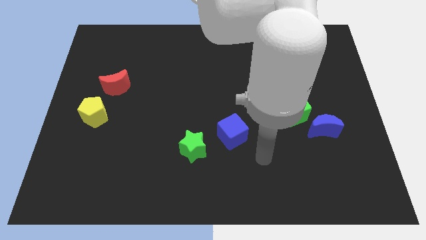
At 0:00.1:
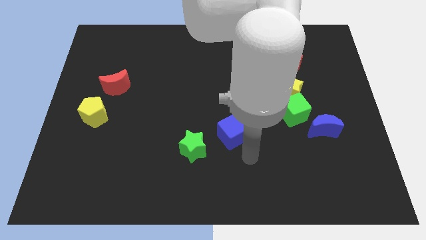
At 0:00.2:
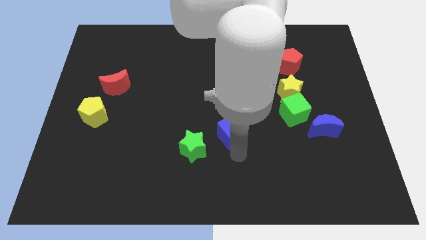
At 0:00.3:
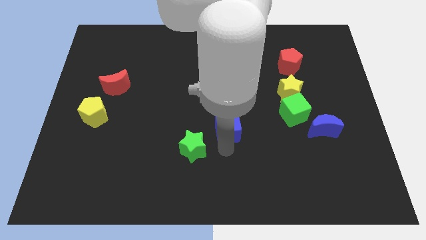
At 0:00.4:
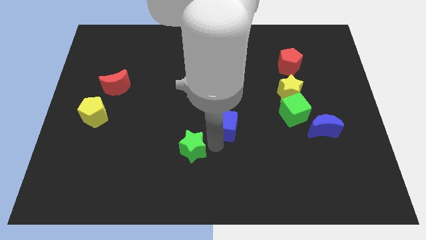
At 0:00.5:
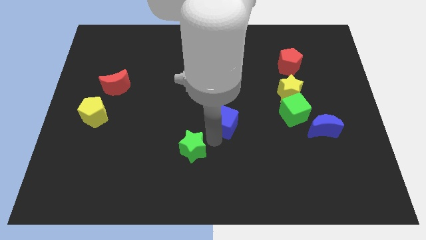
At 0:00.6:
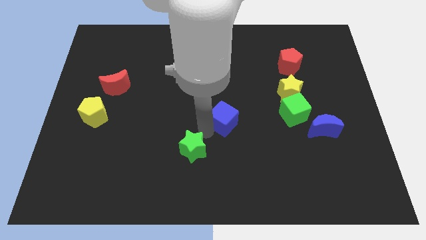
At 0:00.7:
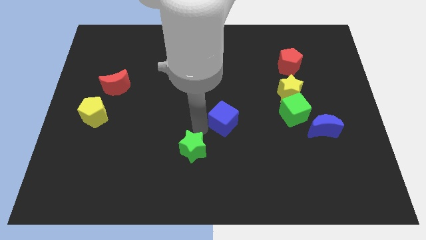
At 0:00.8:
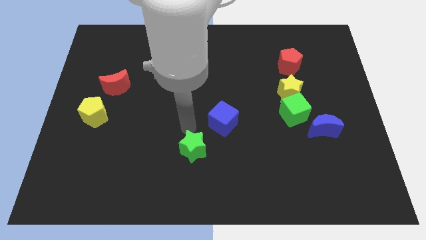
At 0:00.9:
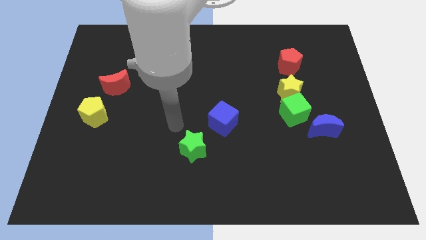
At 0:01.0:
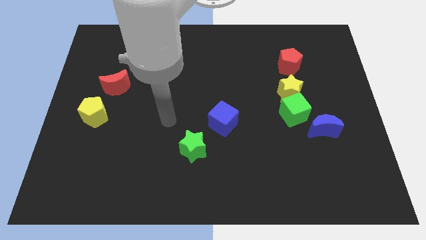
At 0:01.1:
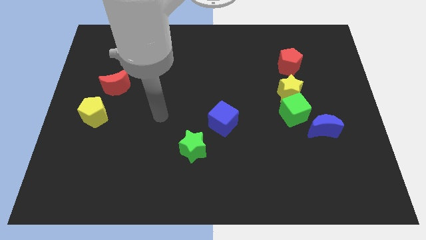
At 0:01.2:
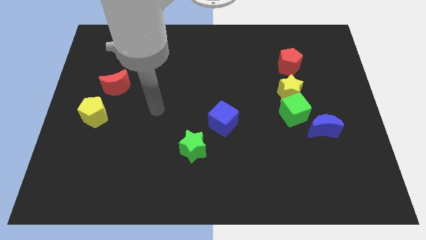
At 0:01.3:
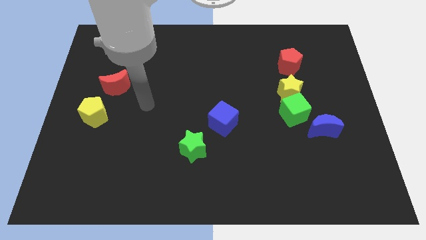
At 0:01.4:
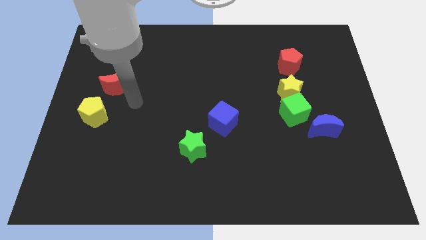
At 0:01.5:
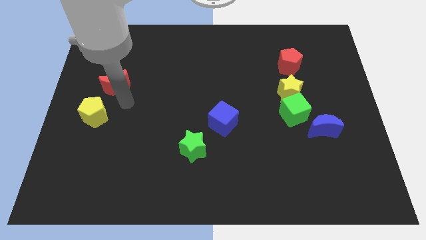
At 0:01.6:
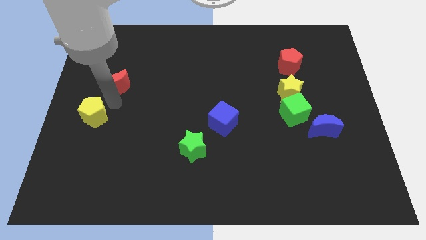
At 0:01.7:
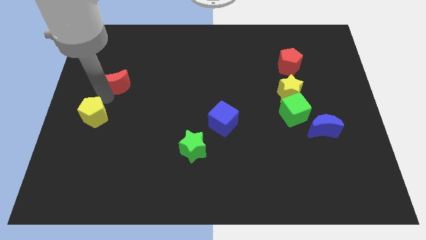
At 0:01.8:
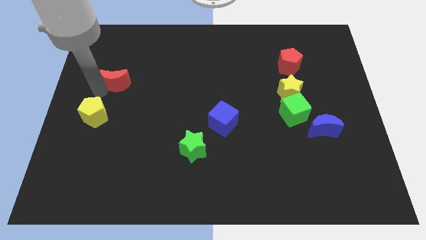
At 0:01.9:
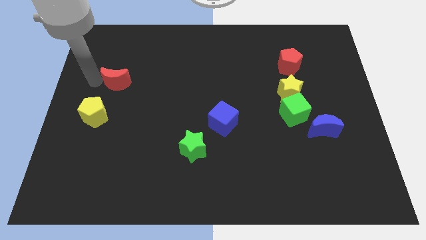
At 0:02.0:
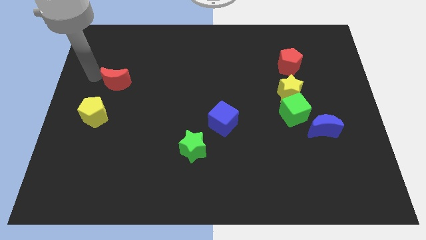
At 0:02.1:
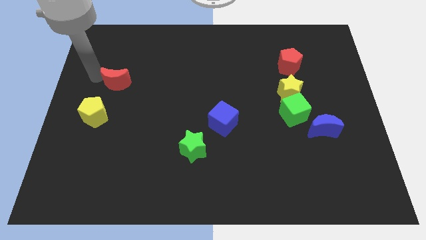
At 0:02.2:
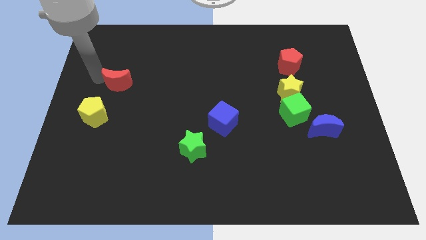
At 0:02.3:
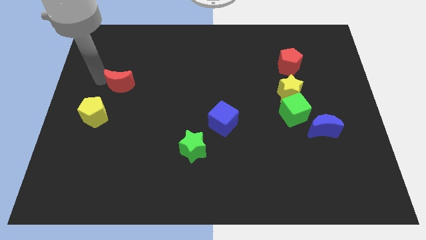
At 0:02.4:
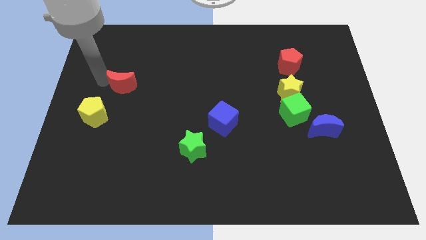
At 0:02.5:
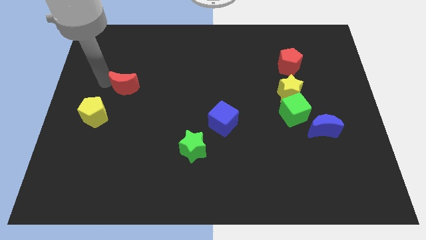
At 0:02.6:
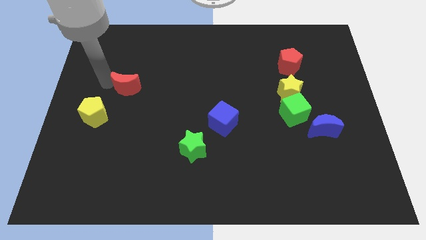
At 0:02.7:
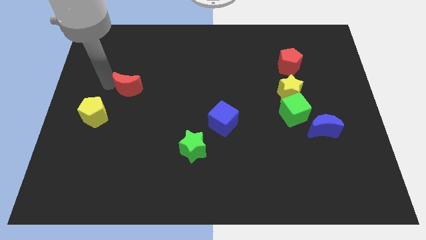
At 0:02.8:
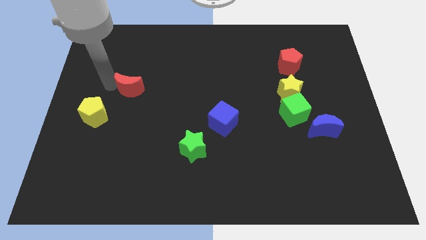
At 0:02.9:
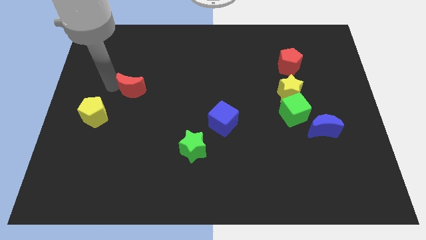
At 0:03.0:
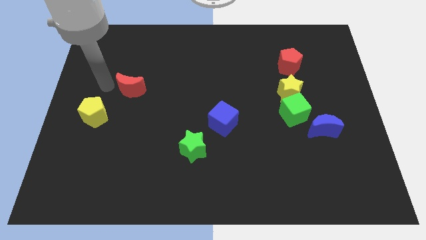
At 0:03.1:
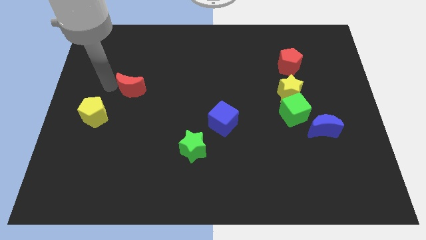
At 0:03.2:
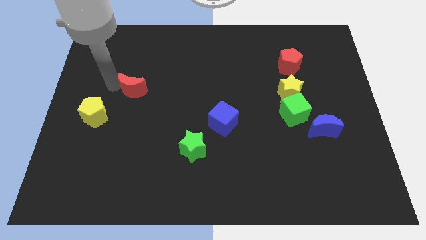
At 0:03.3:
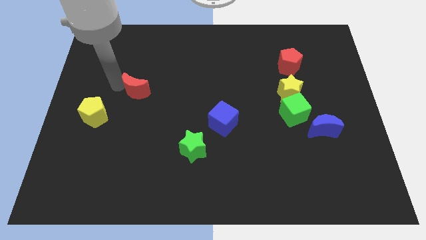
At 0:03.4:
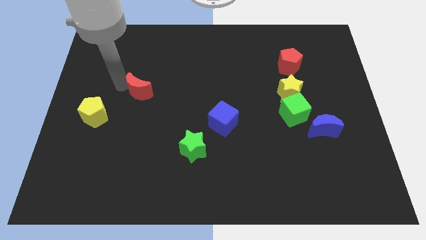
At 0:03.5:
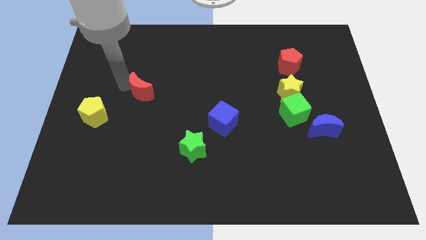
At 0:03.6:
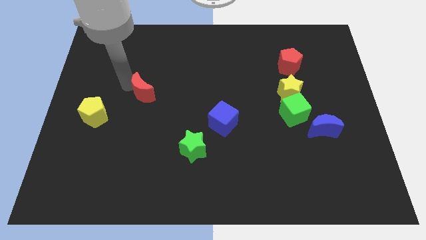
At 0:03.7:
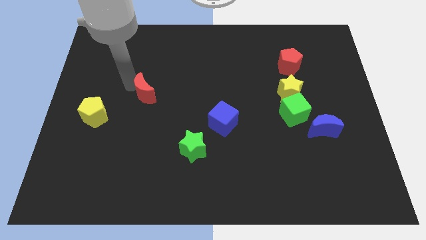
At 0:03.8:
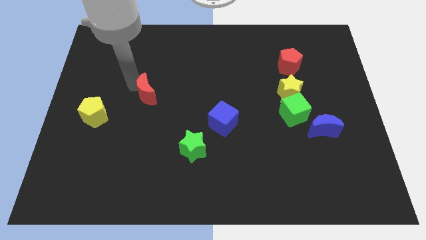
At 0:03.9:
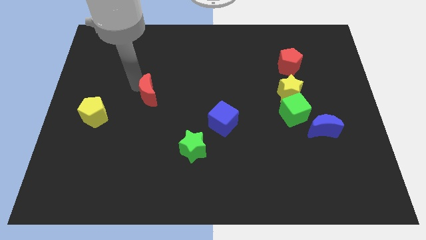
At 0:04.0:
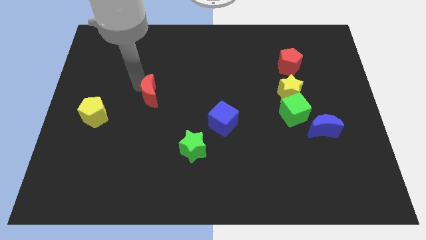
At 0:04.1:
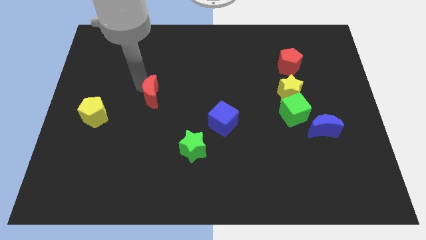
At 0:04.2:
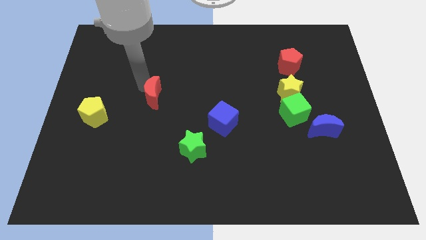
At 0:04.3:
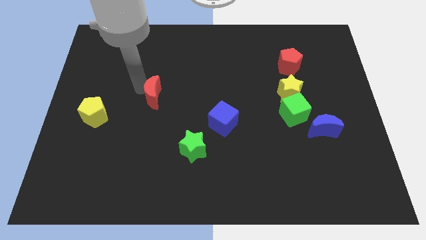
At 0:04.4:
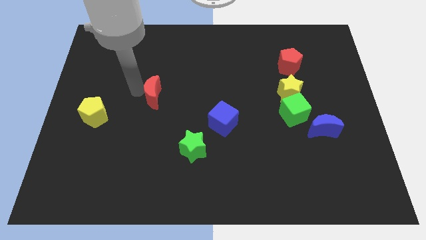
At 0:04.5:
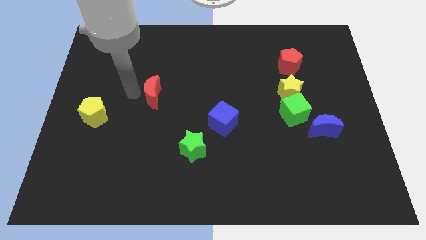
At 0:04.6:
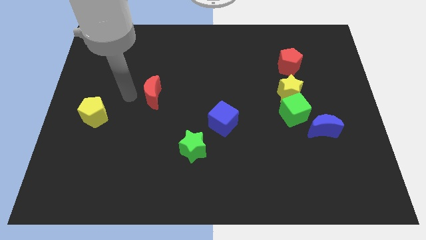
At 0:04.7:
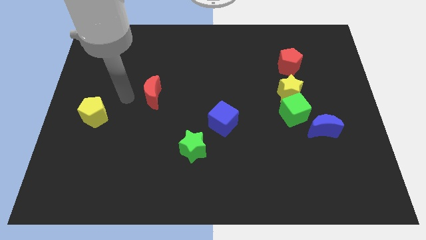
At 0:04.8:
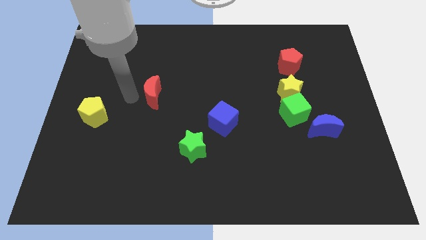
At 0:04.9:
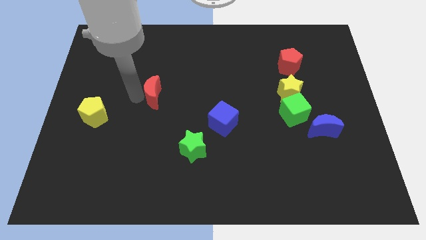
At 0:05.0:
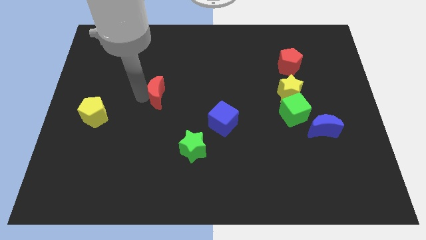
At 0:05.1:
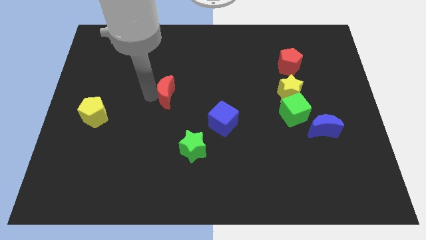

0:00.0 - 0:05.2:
slide the red moon to the center

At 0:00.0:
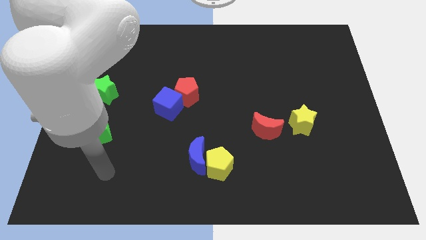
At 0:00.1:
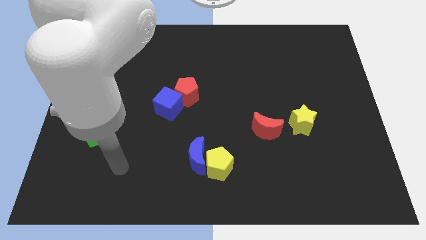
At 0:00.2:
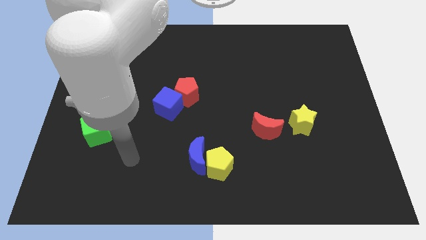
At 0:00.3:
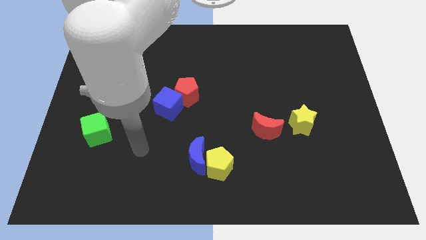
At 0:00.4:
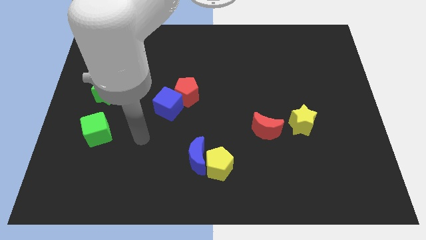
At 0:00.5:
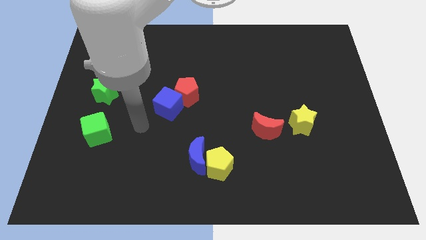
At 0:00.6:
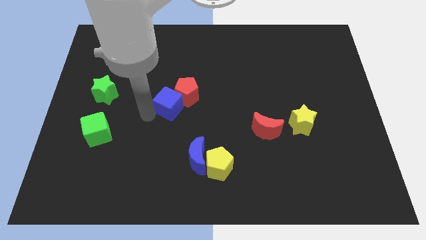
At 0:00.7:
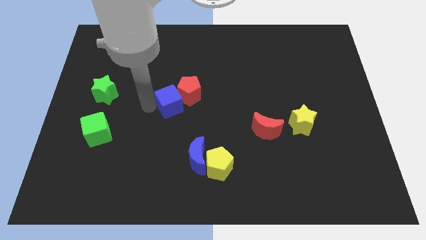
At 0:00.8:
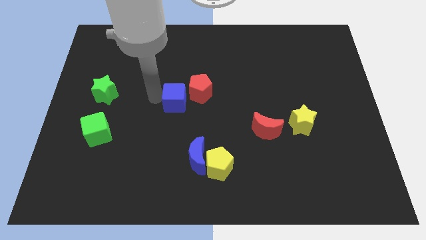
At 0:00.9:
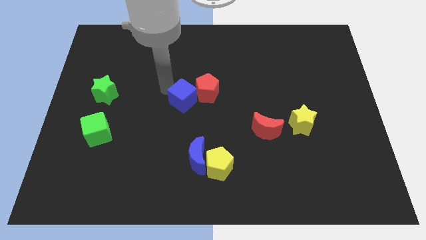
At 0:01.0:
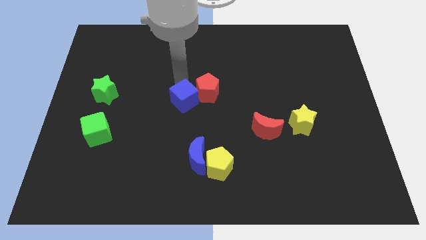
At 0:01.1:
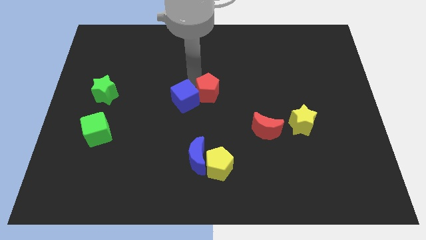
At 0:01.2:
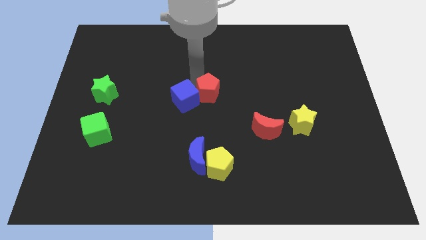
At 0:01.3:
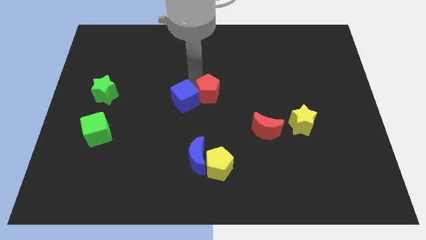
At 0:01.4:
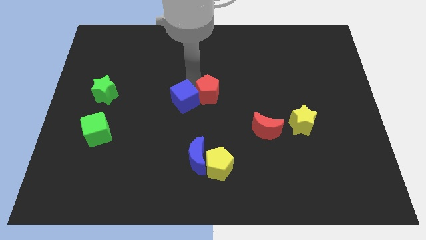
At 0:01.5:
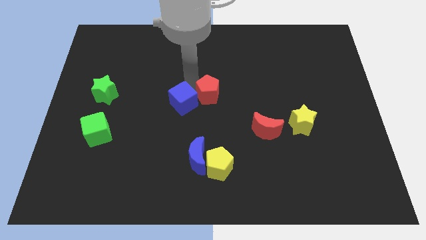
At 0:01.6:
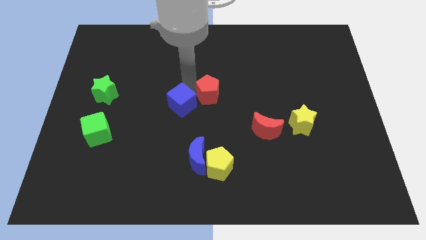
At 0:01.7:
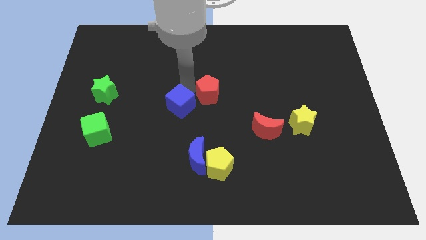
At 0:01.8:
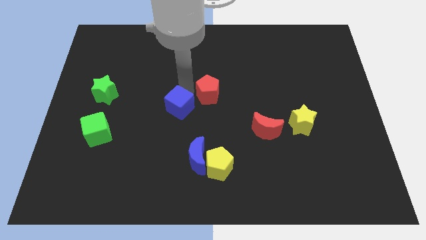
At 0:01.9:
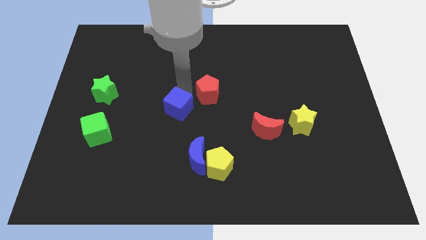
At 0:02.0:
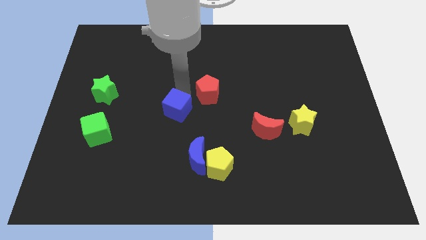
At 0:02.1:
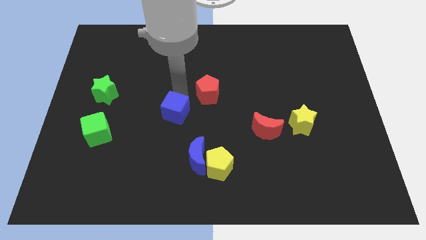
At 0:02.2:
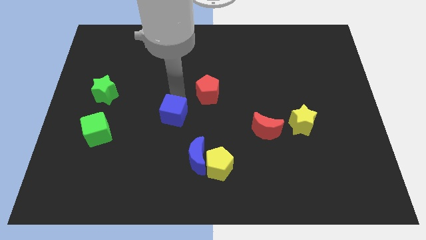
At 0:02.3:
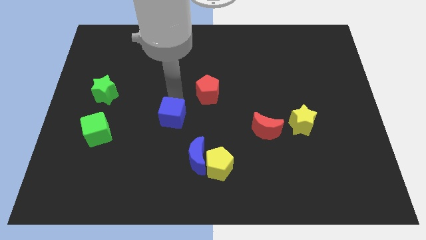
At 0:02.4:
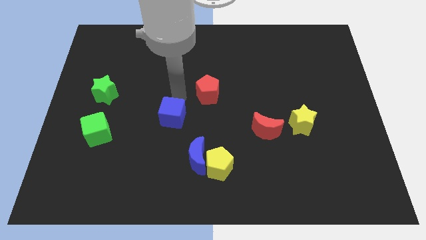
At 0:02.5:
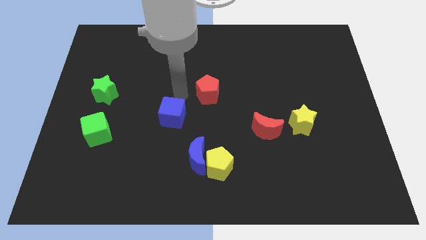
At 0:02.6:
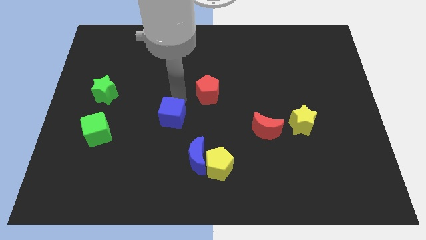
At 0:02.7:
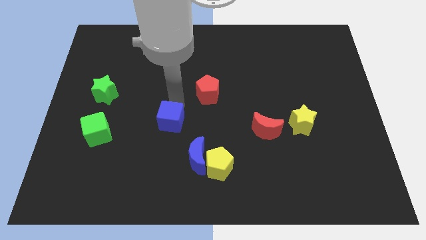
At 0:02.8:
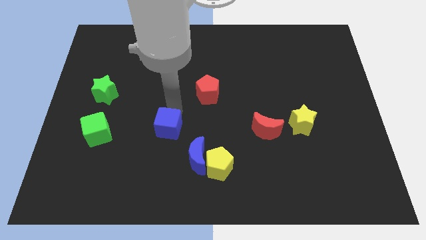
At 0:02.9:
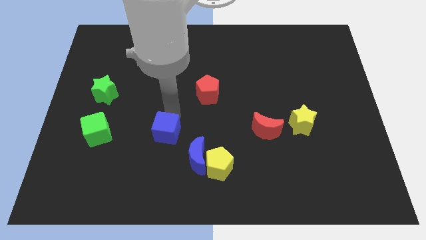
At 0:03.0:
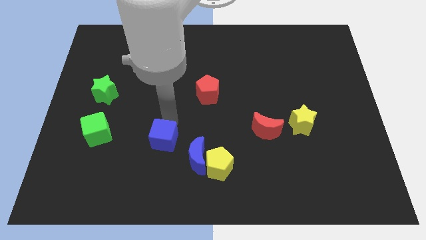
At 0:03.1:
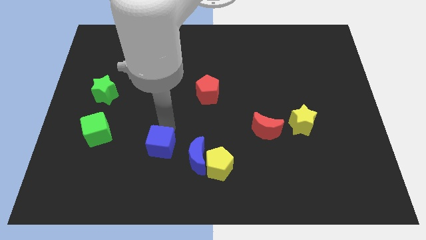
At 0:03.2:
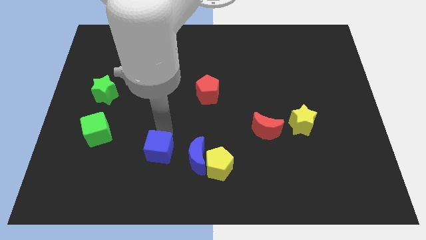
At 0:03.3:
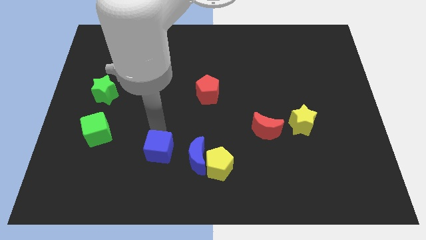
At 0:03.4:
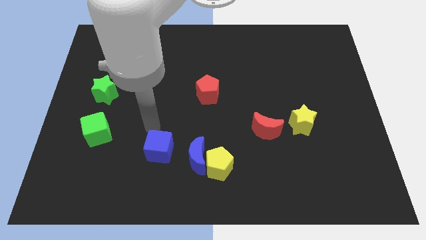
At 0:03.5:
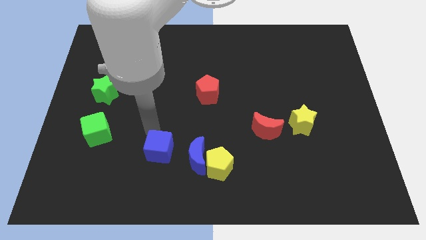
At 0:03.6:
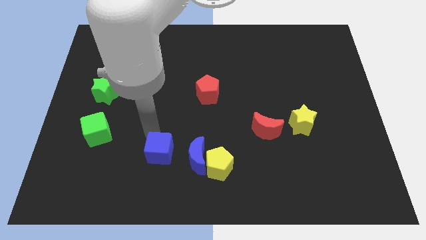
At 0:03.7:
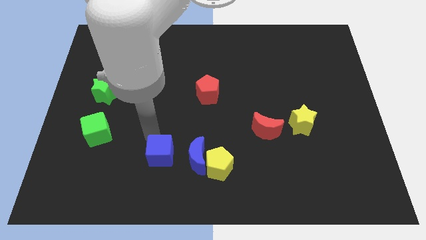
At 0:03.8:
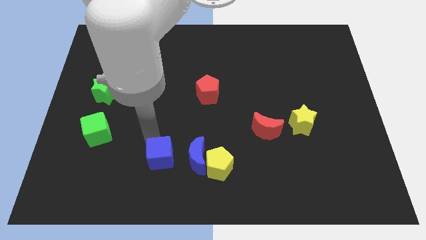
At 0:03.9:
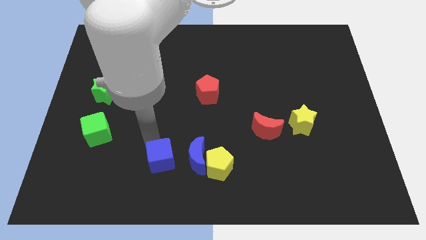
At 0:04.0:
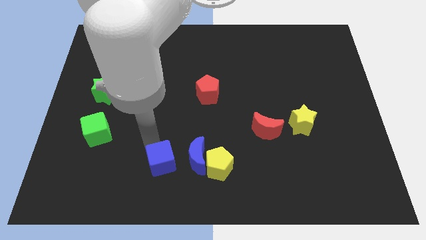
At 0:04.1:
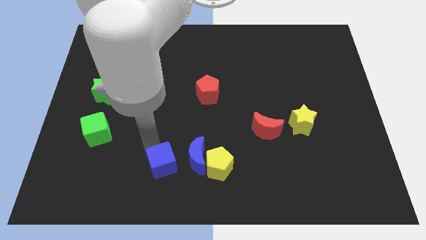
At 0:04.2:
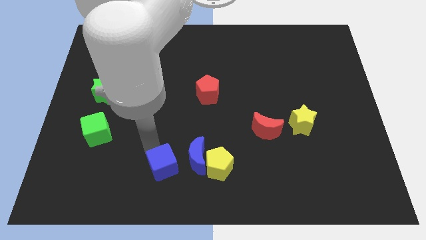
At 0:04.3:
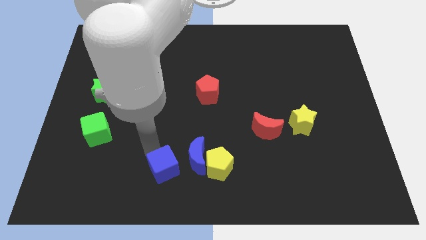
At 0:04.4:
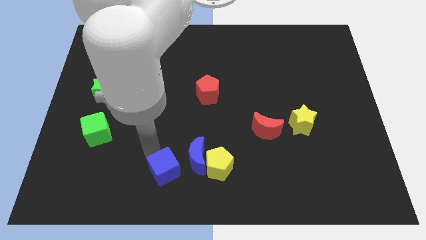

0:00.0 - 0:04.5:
push the blue cube to the bottom side
